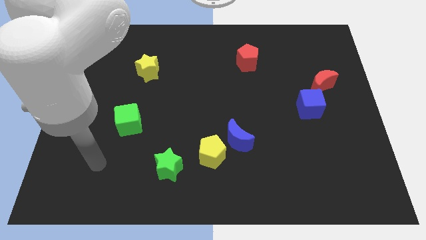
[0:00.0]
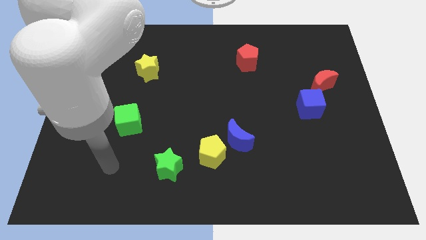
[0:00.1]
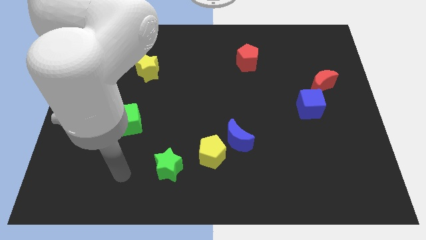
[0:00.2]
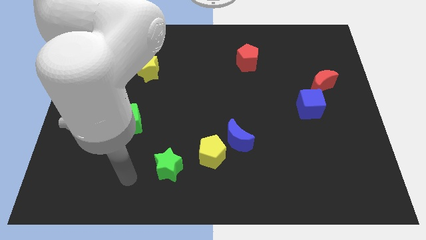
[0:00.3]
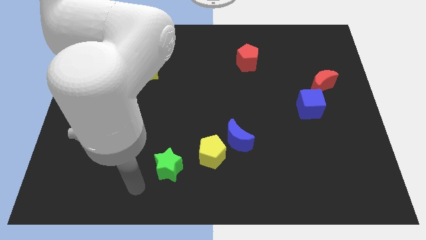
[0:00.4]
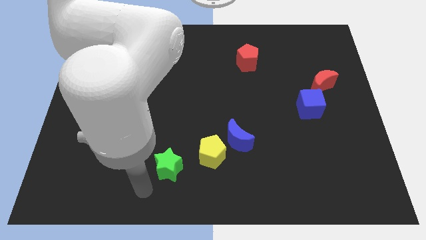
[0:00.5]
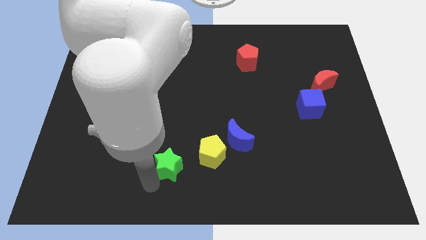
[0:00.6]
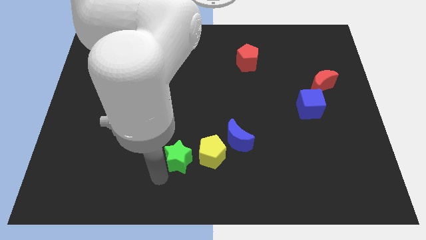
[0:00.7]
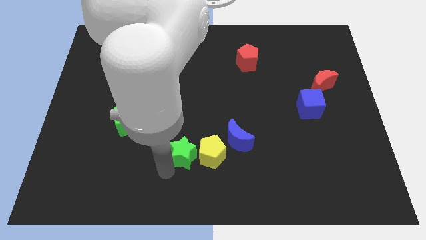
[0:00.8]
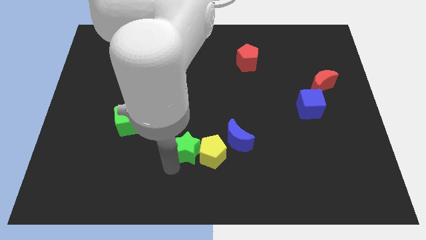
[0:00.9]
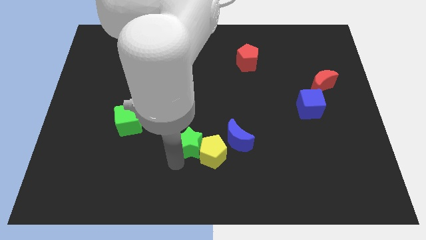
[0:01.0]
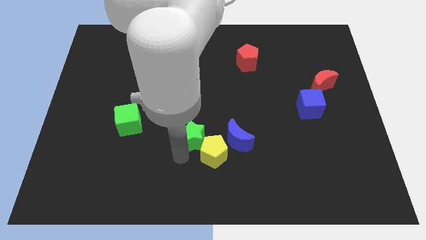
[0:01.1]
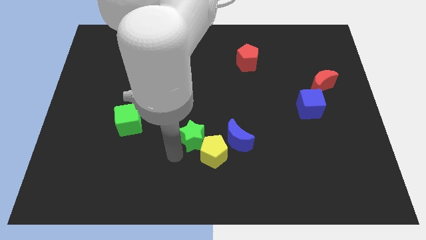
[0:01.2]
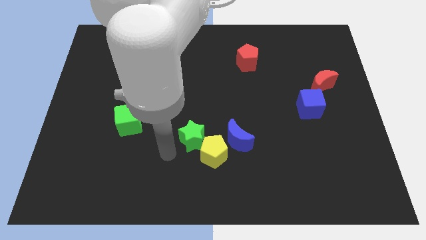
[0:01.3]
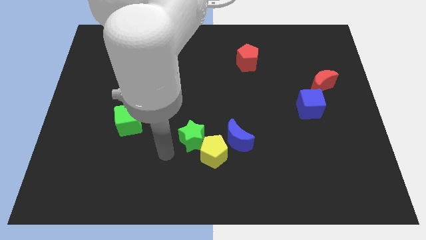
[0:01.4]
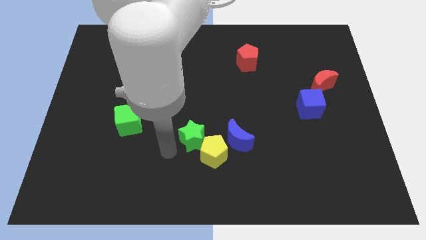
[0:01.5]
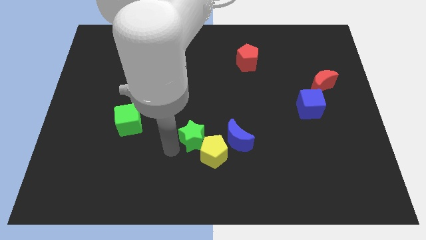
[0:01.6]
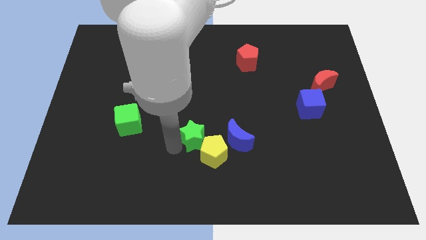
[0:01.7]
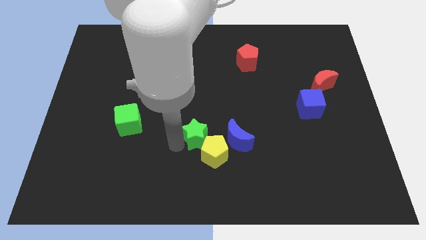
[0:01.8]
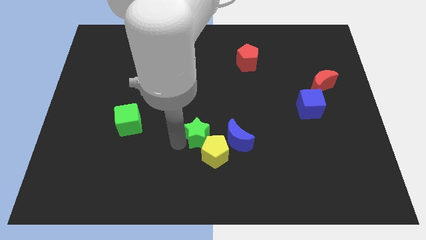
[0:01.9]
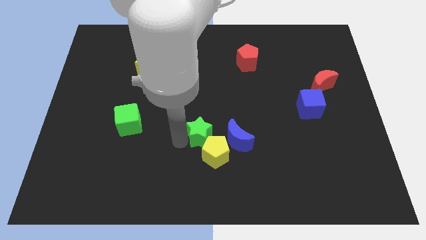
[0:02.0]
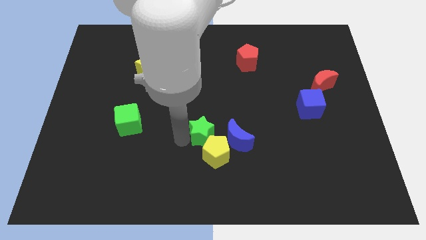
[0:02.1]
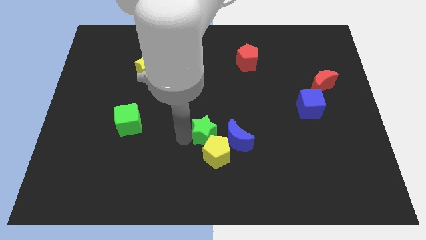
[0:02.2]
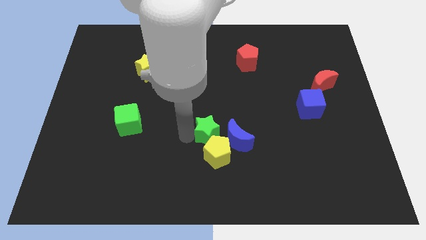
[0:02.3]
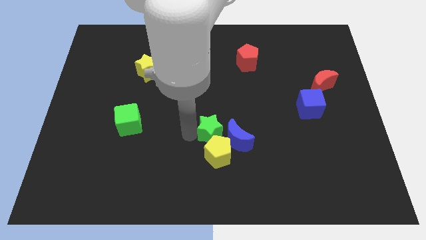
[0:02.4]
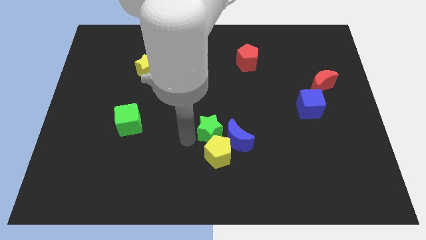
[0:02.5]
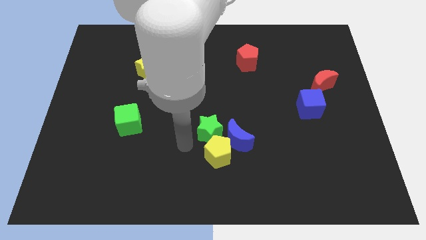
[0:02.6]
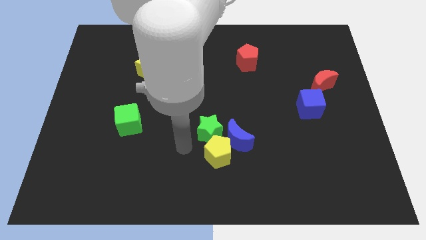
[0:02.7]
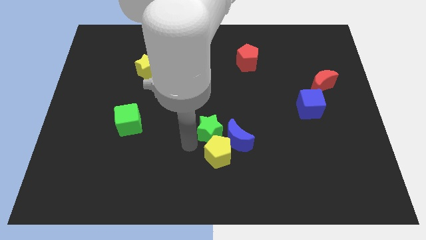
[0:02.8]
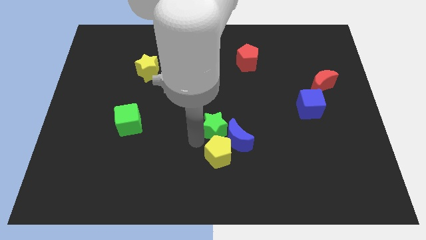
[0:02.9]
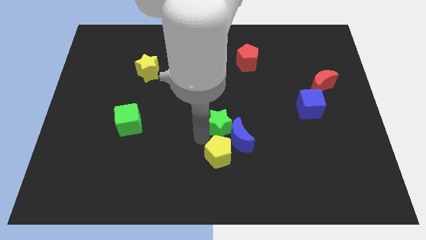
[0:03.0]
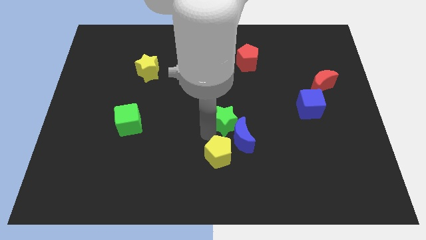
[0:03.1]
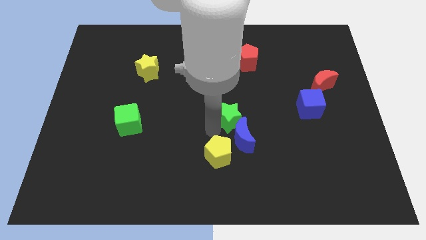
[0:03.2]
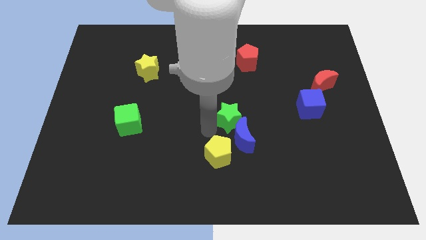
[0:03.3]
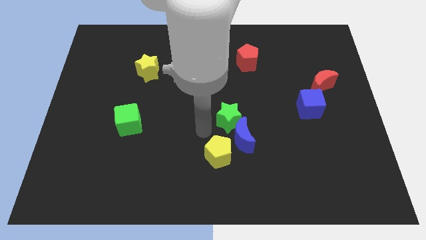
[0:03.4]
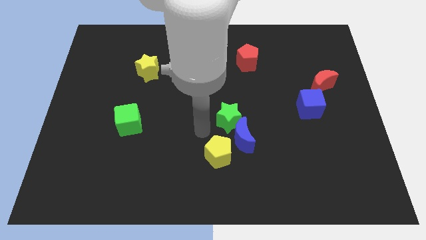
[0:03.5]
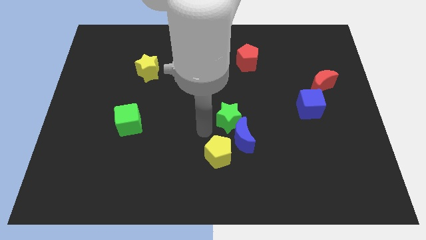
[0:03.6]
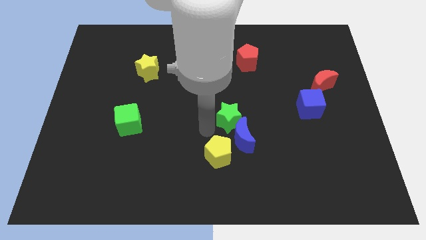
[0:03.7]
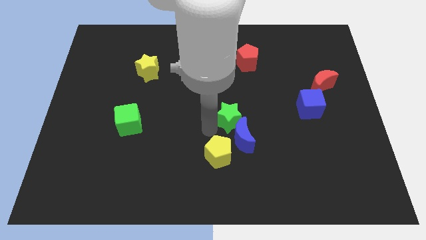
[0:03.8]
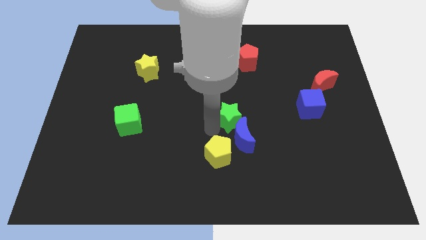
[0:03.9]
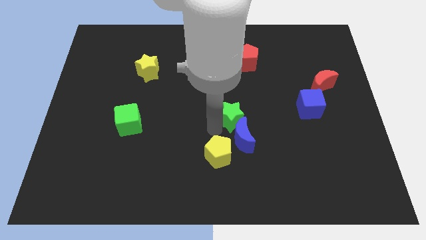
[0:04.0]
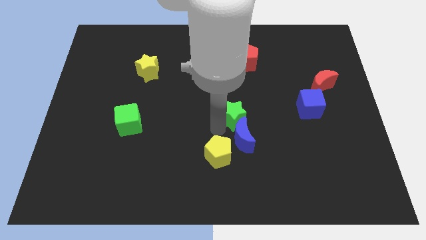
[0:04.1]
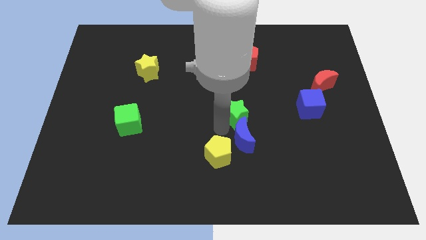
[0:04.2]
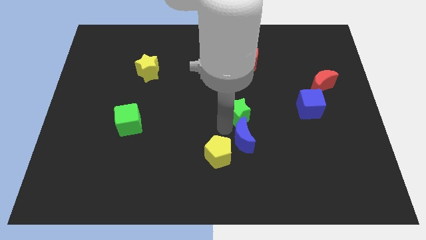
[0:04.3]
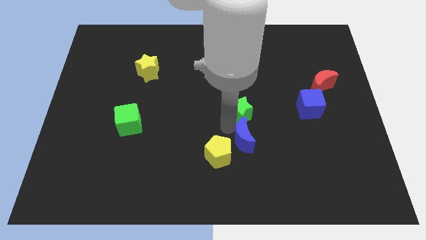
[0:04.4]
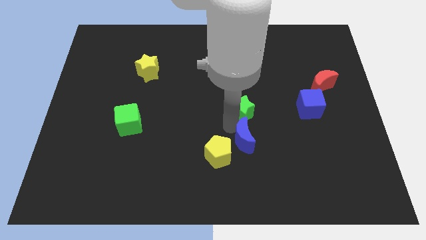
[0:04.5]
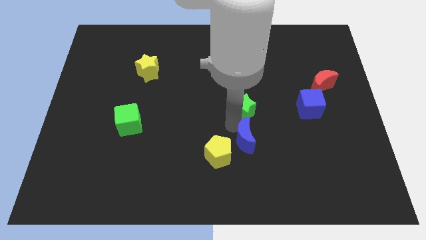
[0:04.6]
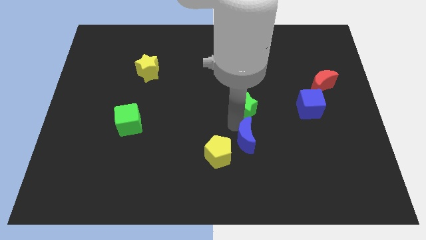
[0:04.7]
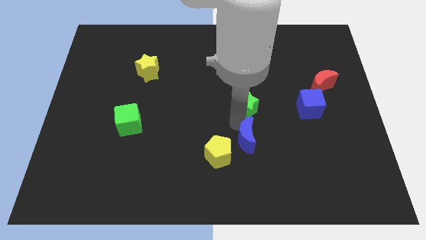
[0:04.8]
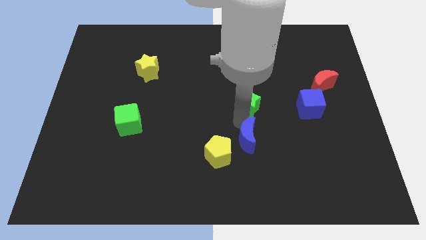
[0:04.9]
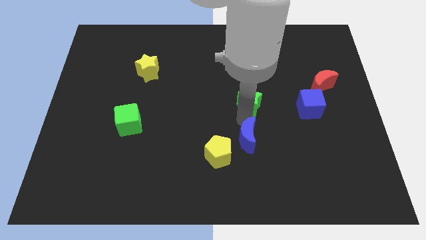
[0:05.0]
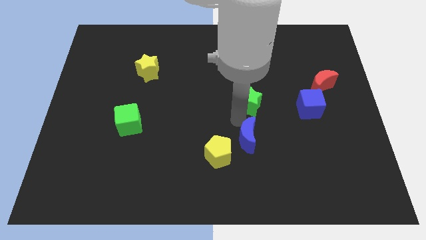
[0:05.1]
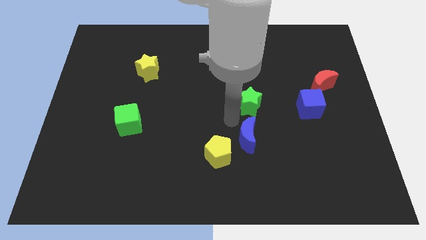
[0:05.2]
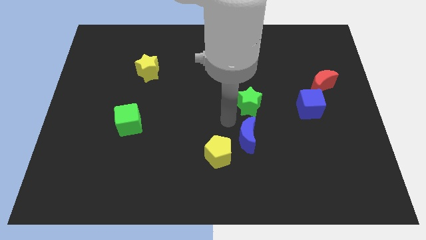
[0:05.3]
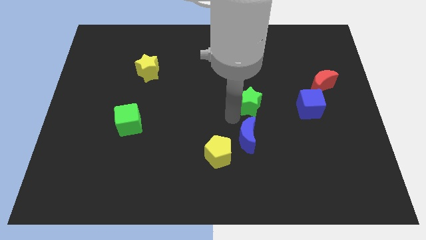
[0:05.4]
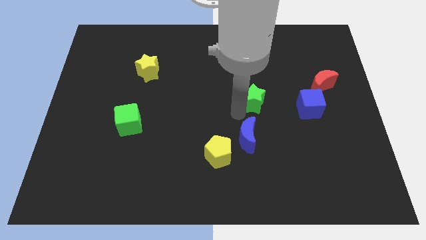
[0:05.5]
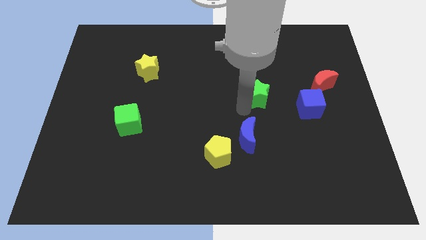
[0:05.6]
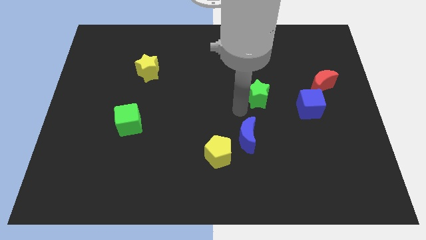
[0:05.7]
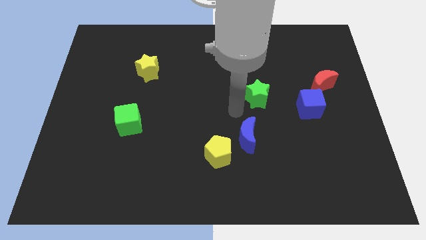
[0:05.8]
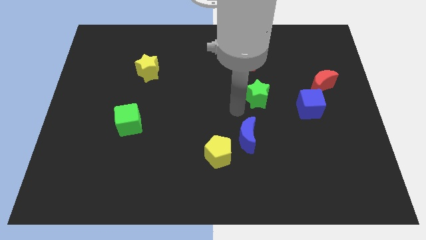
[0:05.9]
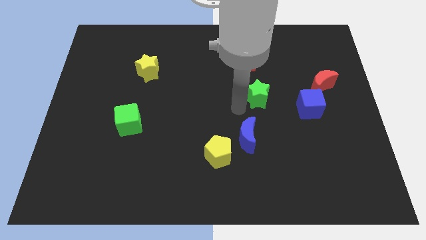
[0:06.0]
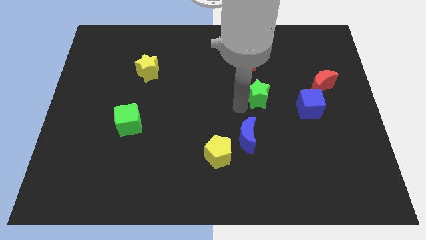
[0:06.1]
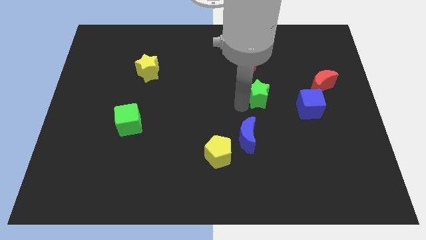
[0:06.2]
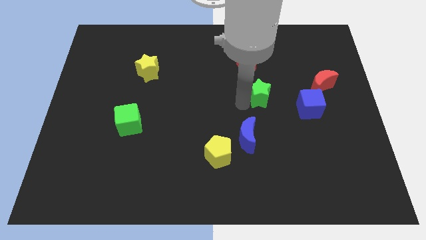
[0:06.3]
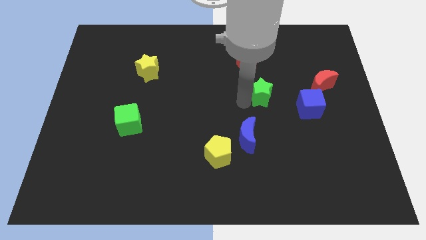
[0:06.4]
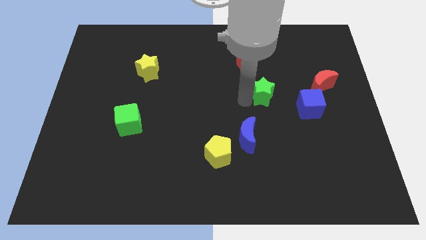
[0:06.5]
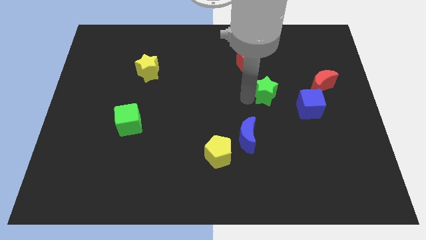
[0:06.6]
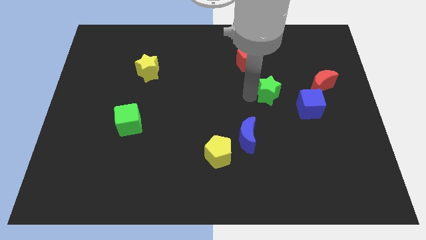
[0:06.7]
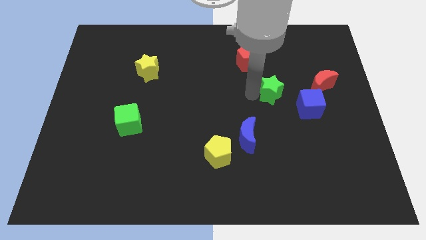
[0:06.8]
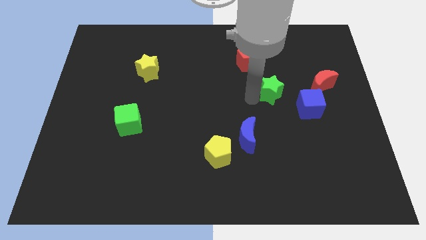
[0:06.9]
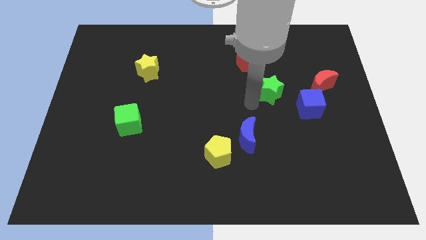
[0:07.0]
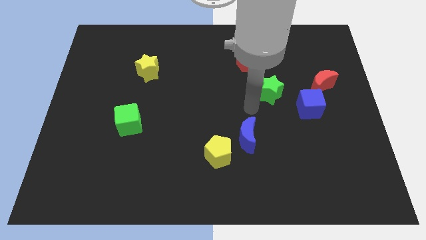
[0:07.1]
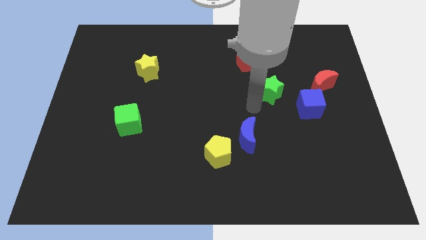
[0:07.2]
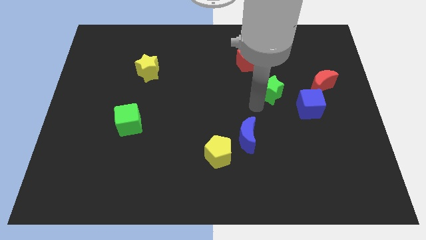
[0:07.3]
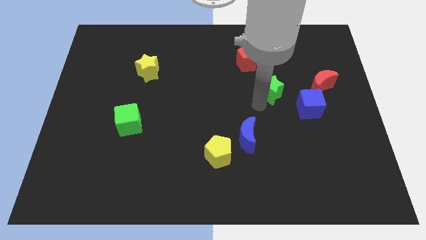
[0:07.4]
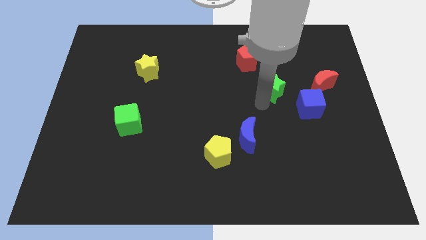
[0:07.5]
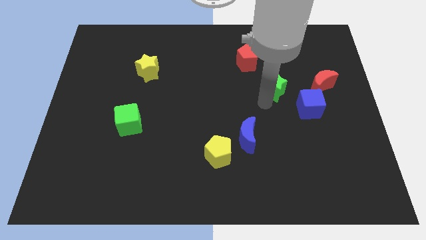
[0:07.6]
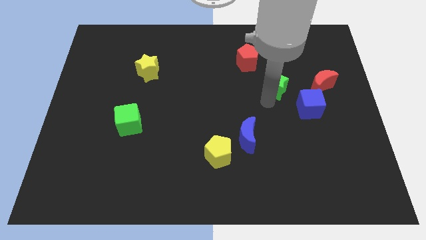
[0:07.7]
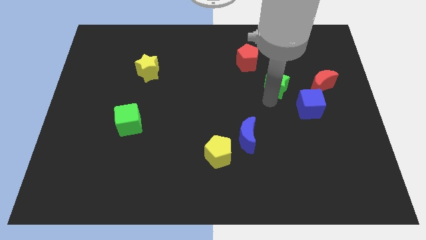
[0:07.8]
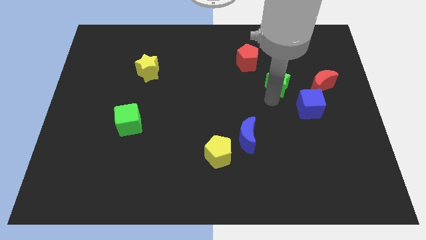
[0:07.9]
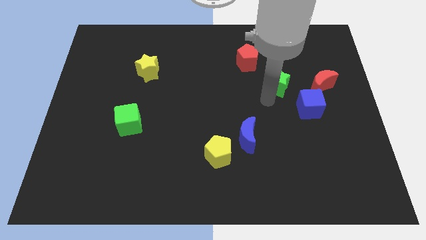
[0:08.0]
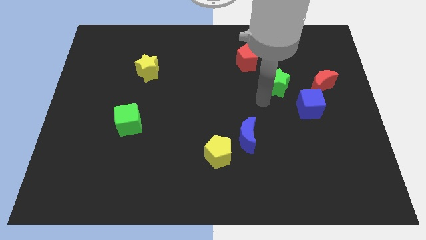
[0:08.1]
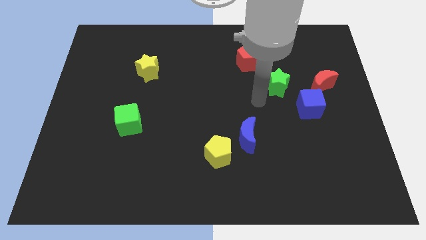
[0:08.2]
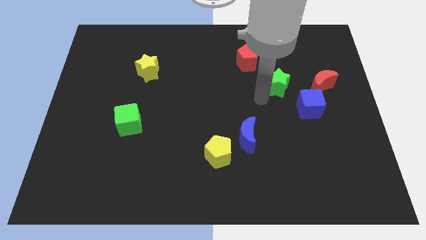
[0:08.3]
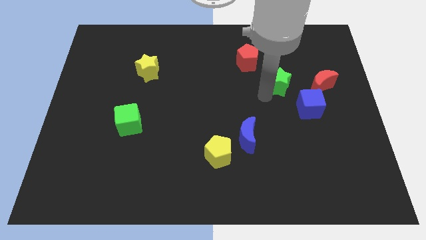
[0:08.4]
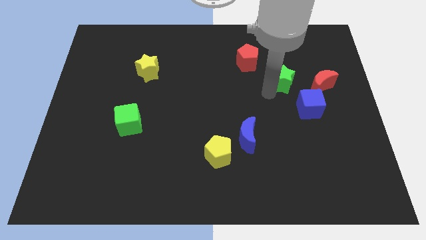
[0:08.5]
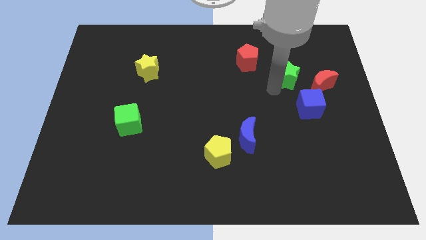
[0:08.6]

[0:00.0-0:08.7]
slide the green star to the top left side of the red moon
